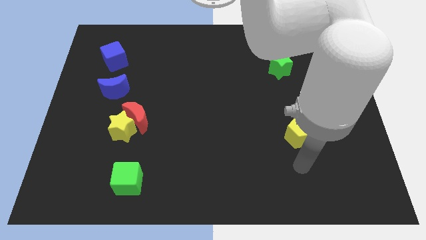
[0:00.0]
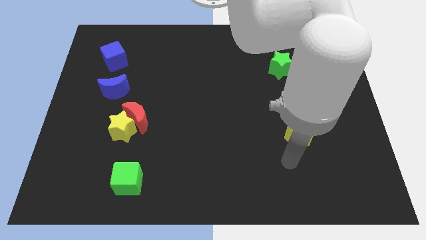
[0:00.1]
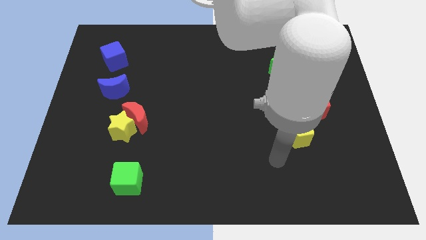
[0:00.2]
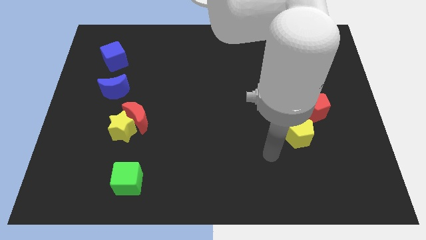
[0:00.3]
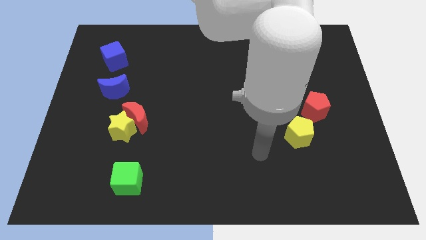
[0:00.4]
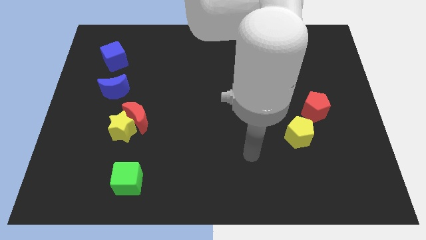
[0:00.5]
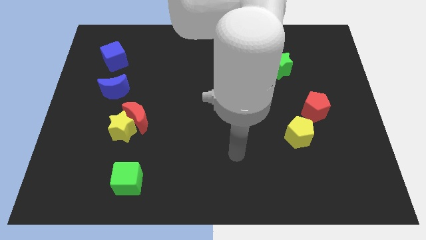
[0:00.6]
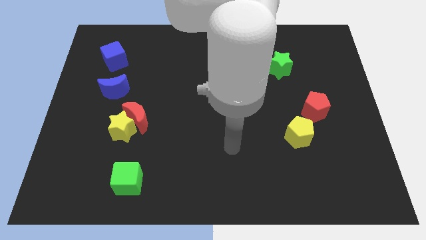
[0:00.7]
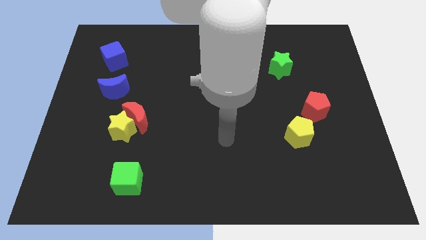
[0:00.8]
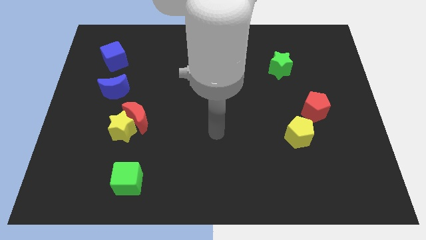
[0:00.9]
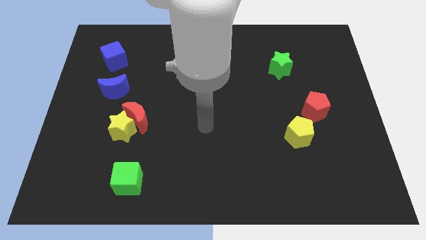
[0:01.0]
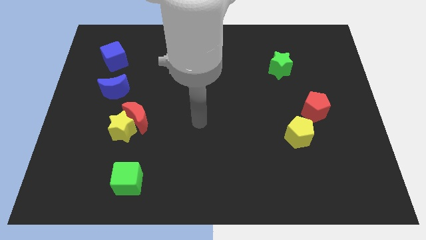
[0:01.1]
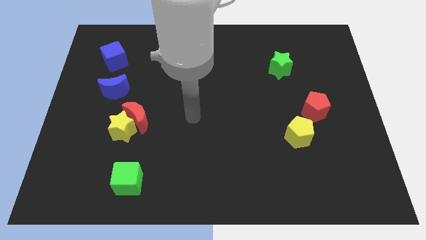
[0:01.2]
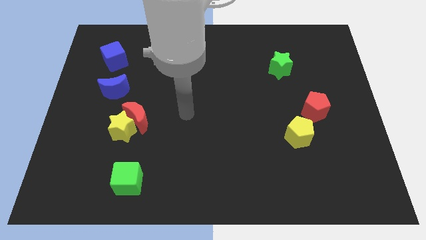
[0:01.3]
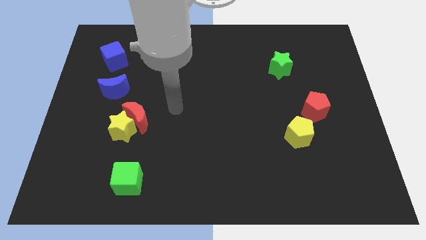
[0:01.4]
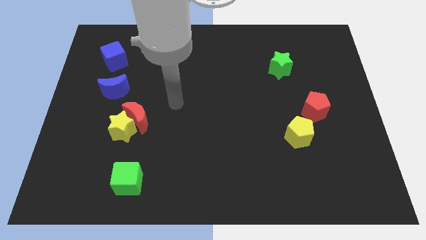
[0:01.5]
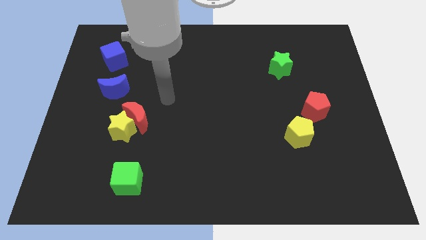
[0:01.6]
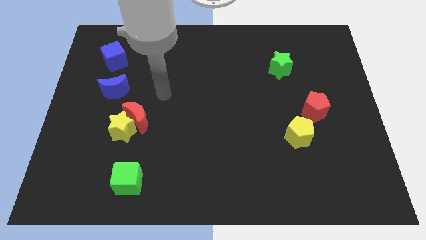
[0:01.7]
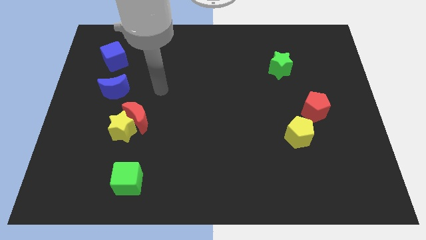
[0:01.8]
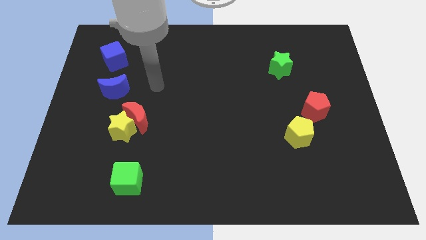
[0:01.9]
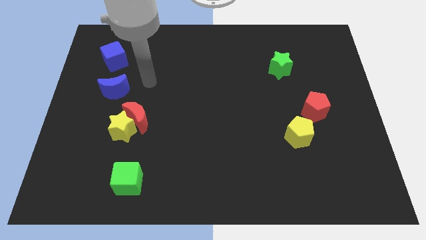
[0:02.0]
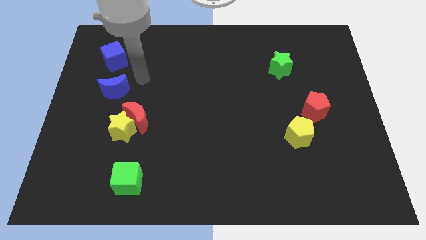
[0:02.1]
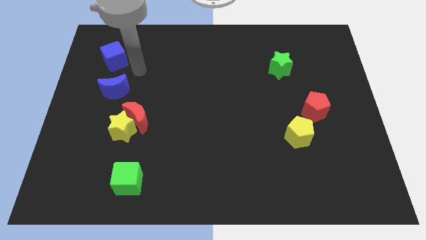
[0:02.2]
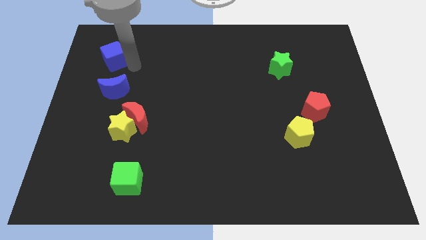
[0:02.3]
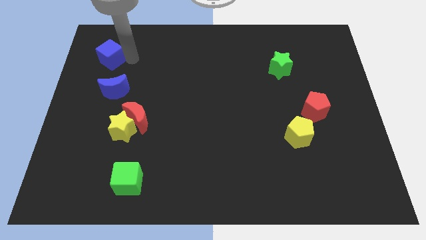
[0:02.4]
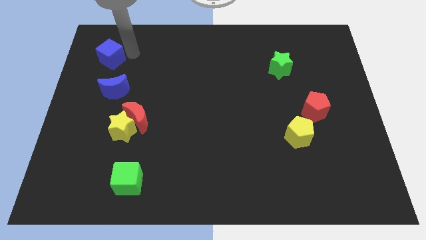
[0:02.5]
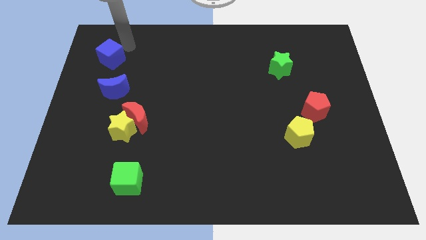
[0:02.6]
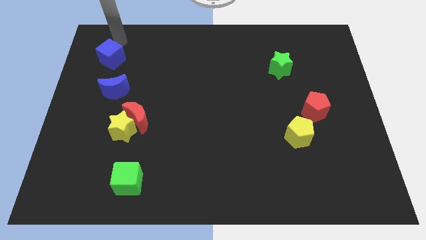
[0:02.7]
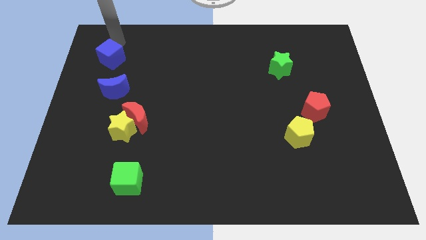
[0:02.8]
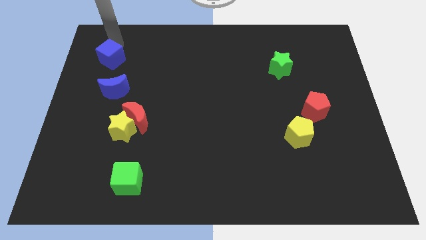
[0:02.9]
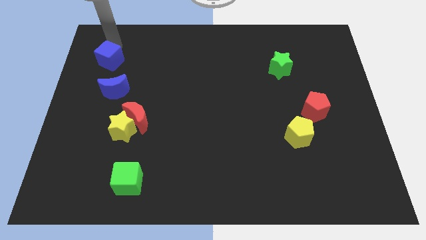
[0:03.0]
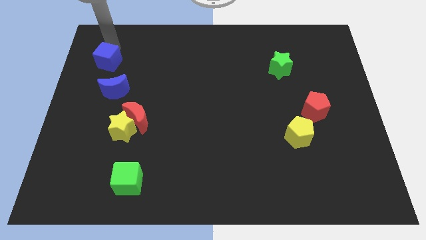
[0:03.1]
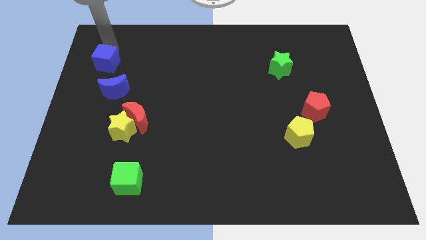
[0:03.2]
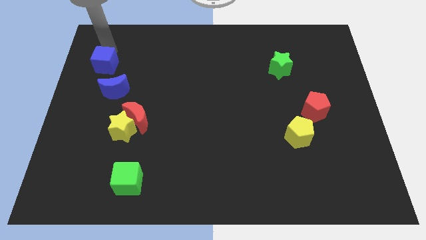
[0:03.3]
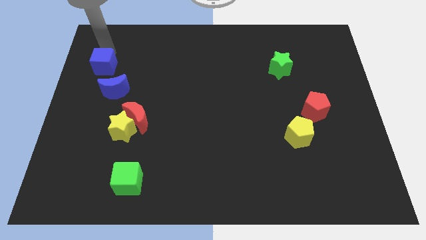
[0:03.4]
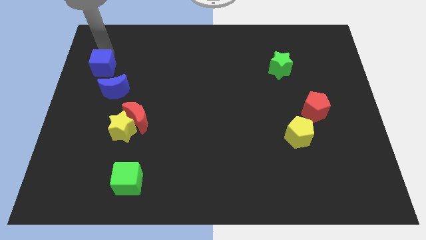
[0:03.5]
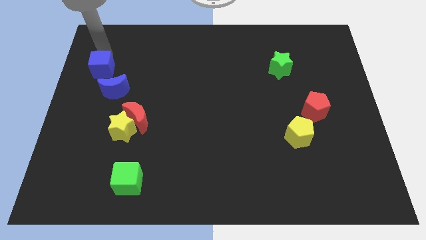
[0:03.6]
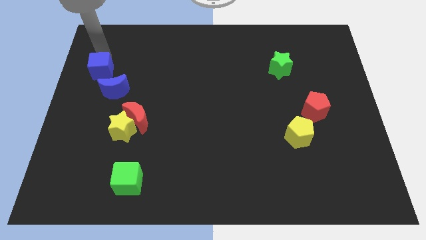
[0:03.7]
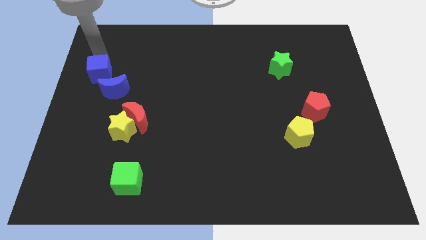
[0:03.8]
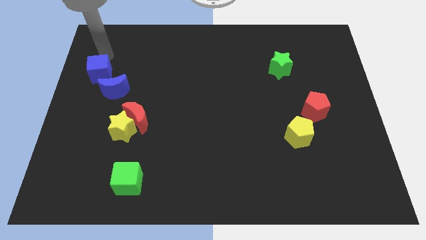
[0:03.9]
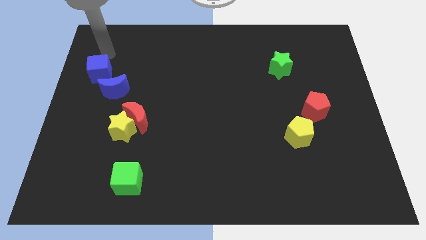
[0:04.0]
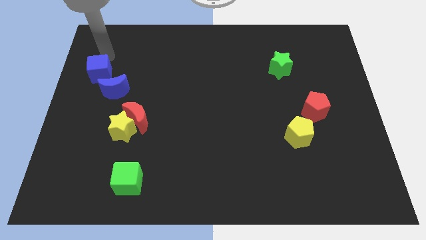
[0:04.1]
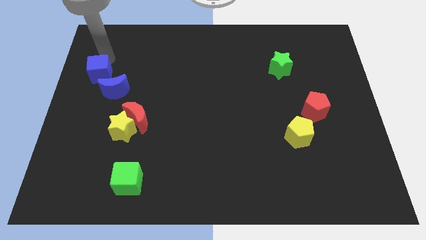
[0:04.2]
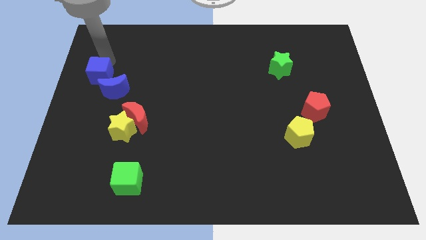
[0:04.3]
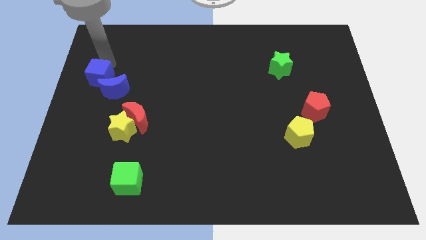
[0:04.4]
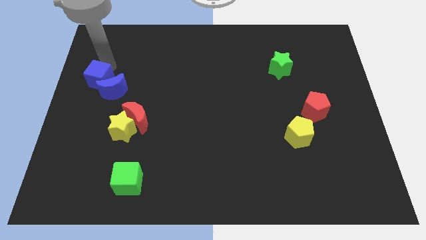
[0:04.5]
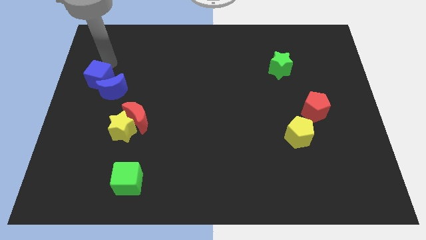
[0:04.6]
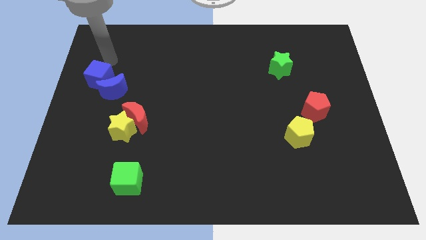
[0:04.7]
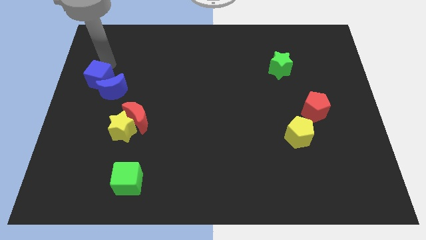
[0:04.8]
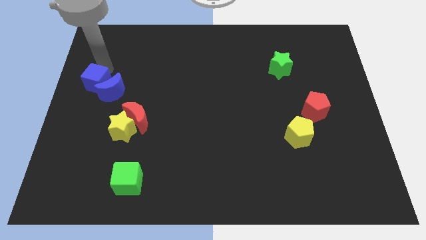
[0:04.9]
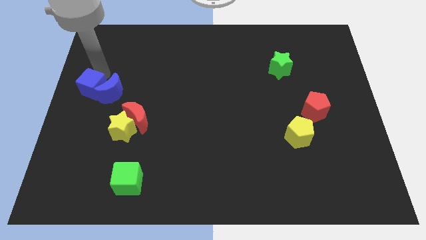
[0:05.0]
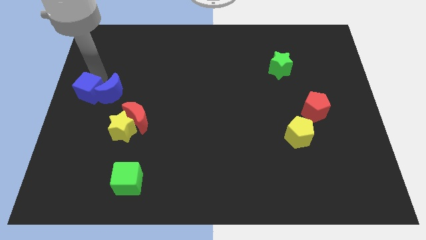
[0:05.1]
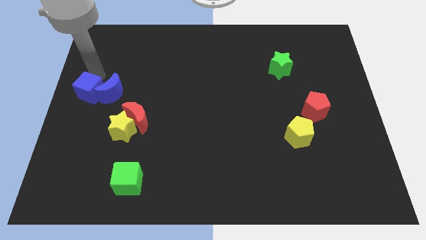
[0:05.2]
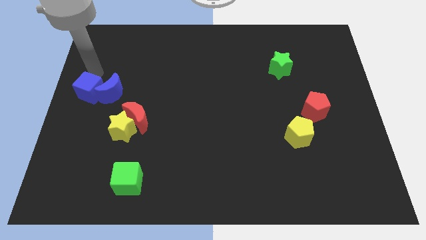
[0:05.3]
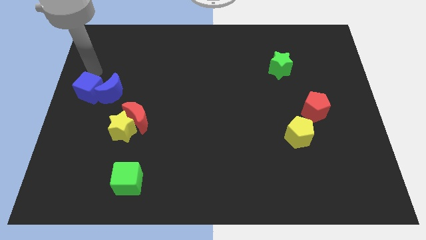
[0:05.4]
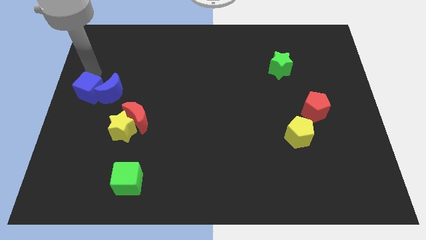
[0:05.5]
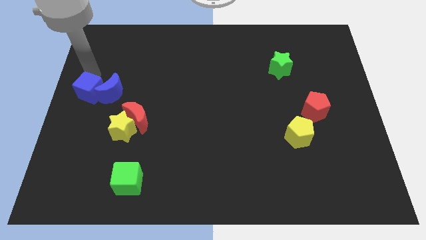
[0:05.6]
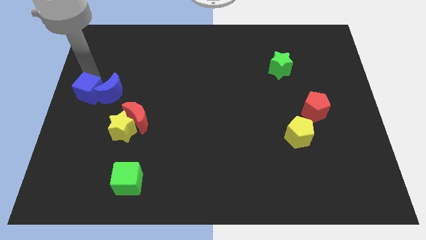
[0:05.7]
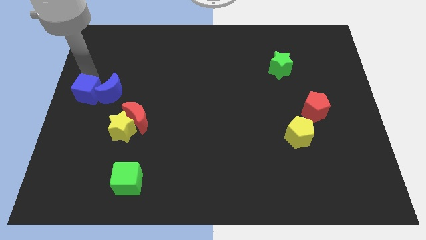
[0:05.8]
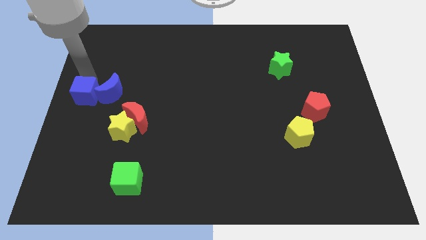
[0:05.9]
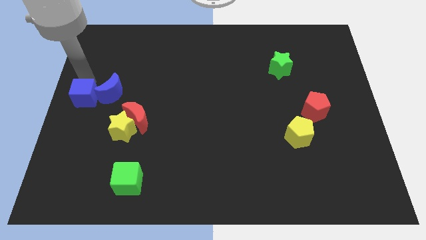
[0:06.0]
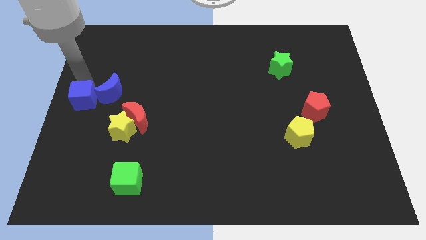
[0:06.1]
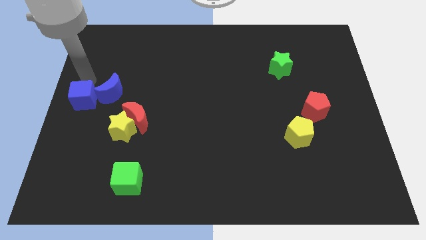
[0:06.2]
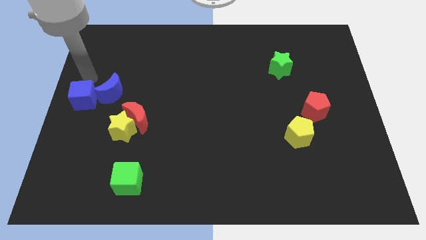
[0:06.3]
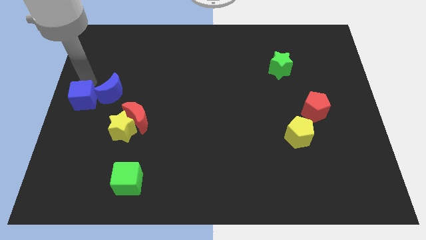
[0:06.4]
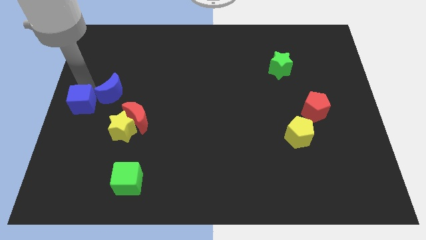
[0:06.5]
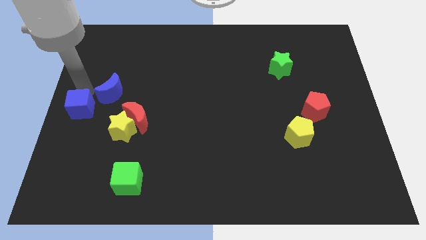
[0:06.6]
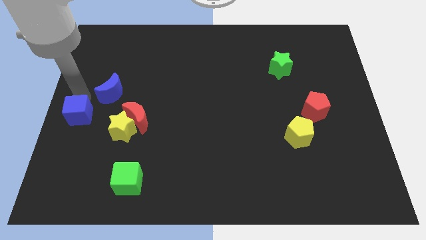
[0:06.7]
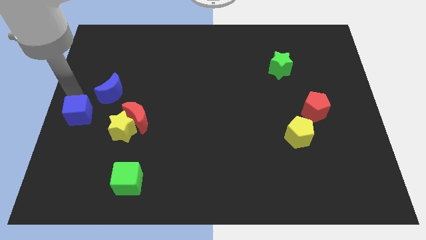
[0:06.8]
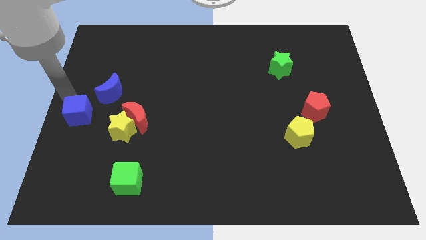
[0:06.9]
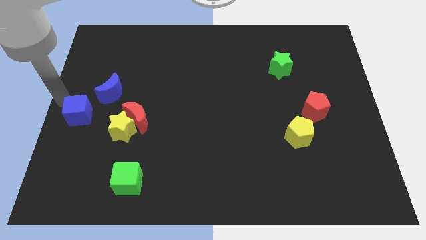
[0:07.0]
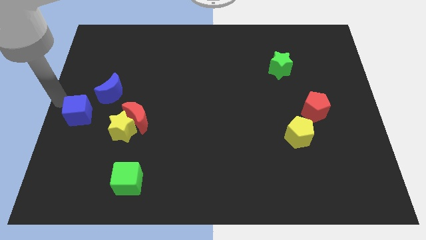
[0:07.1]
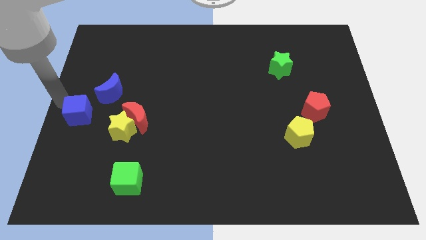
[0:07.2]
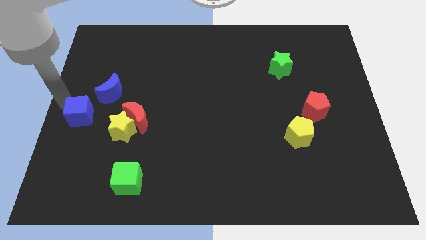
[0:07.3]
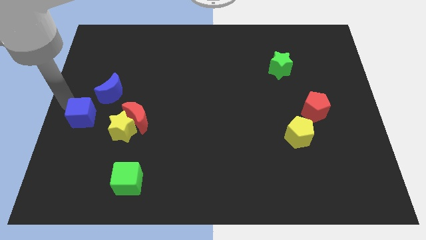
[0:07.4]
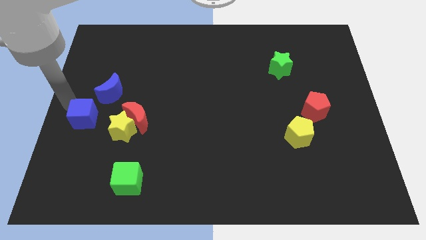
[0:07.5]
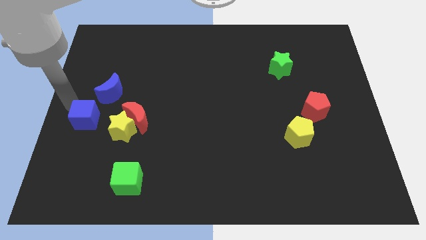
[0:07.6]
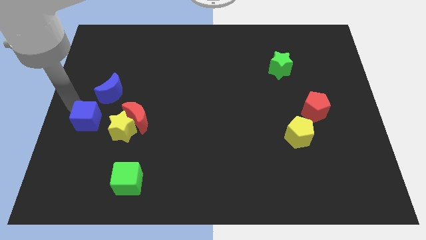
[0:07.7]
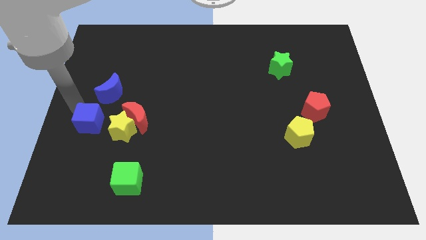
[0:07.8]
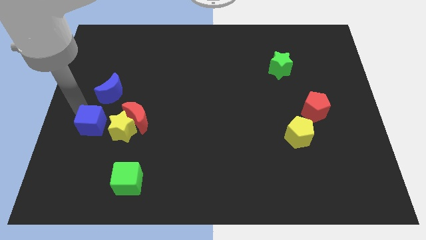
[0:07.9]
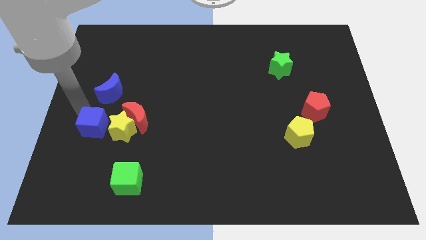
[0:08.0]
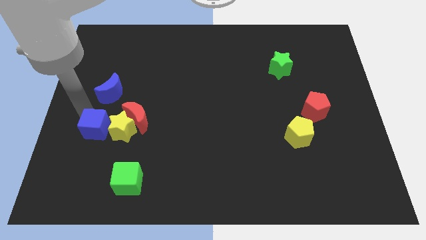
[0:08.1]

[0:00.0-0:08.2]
slide the blue cube towards the yellow star
